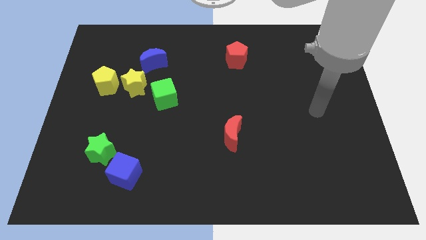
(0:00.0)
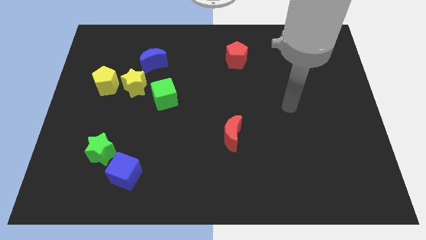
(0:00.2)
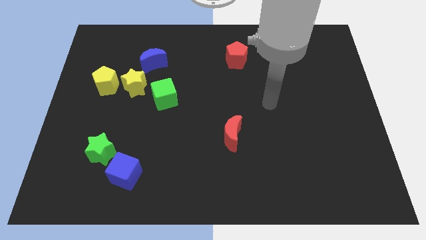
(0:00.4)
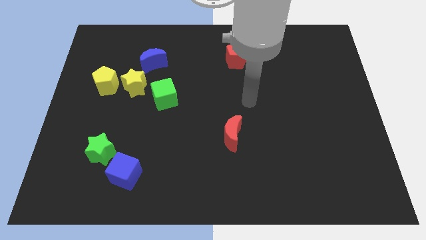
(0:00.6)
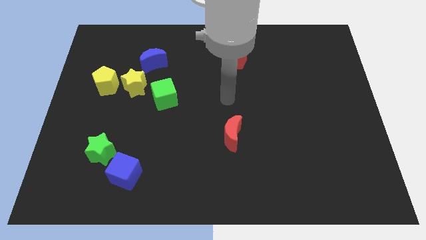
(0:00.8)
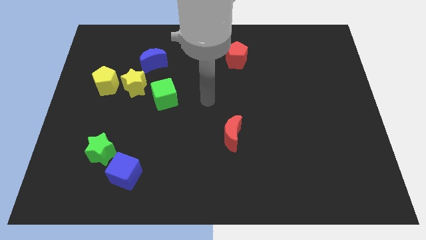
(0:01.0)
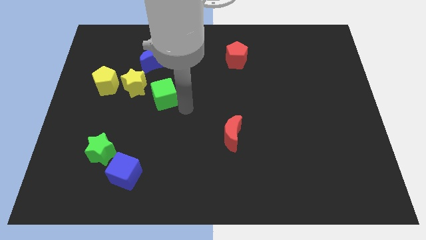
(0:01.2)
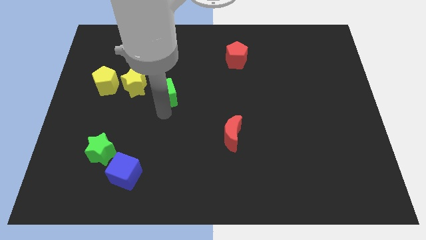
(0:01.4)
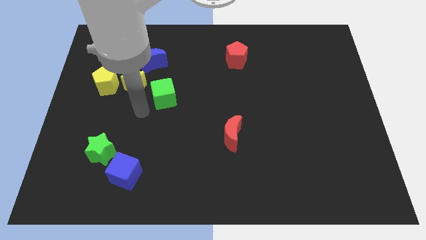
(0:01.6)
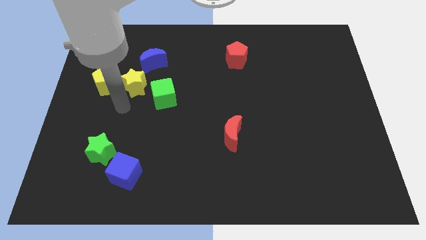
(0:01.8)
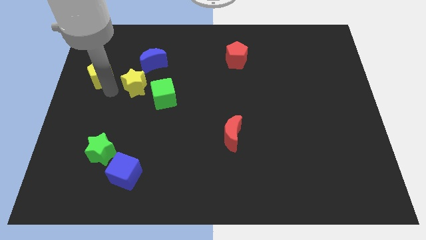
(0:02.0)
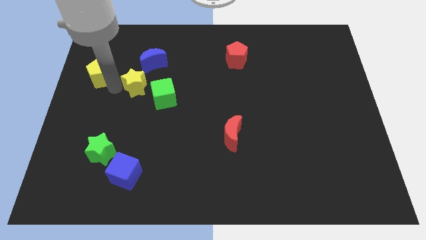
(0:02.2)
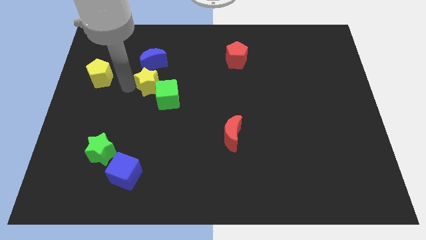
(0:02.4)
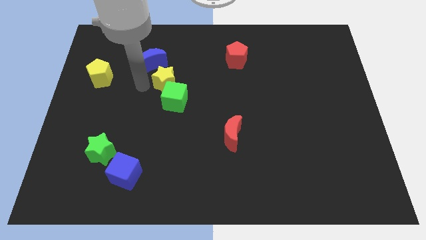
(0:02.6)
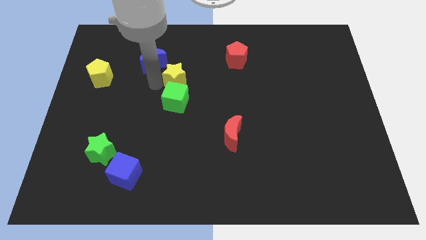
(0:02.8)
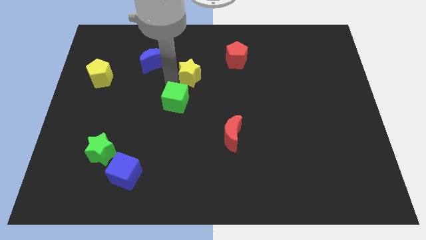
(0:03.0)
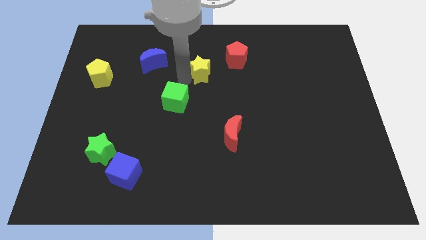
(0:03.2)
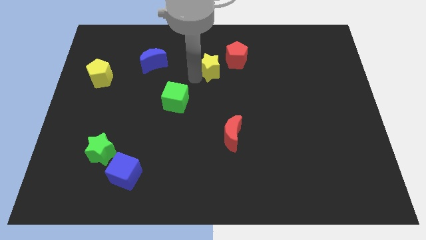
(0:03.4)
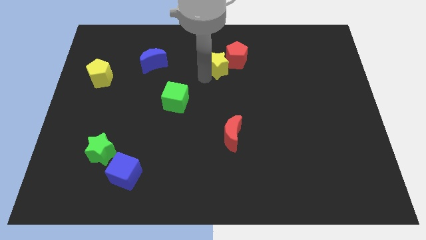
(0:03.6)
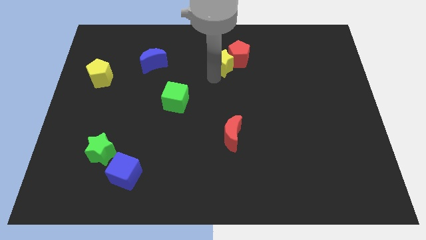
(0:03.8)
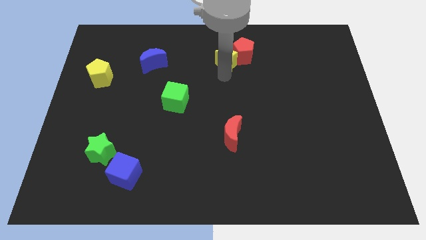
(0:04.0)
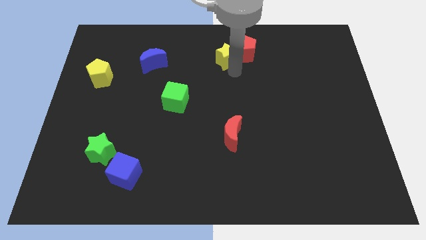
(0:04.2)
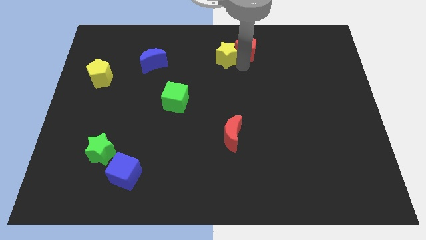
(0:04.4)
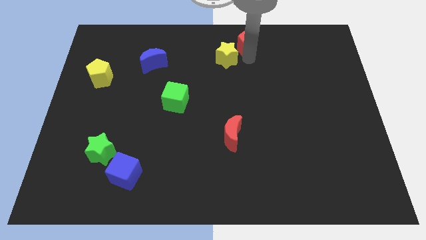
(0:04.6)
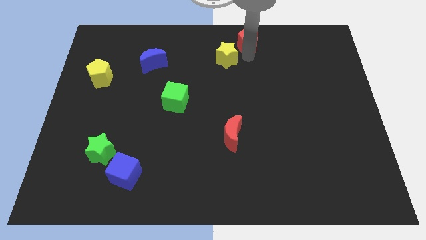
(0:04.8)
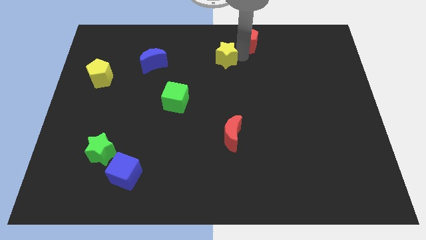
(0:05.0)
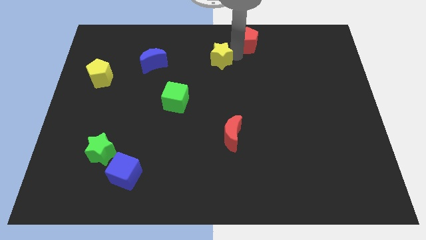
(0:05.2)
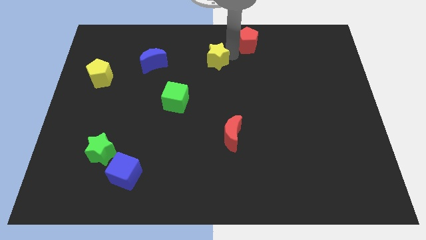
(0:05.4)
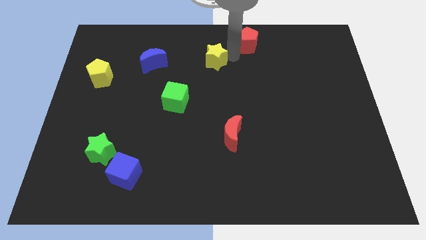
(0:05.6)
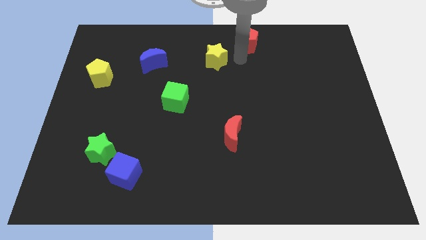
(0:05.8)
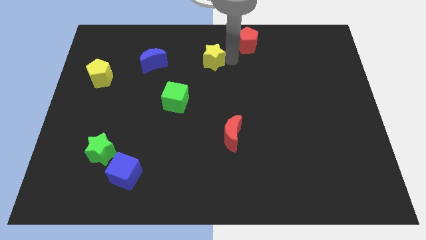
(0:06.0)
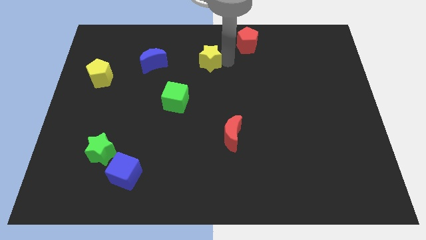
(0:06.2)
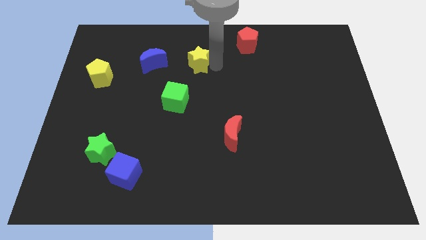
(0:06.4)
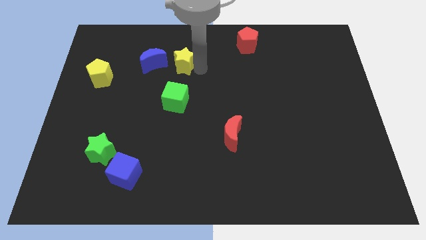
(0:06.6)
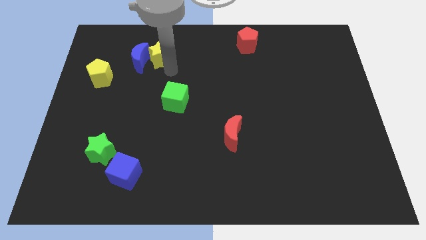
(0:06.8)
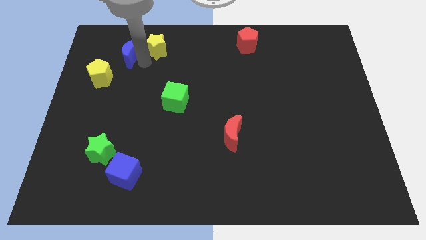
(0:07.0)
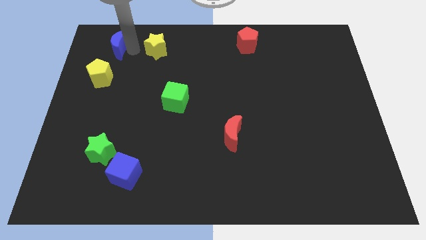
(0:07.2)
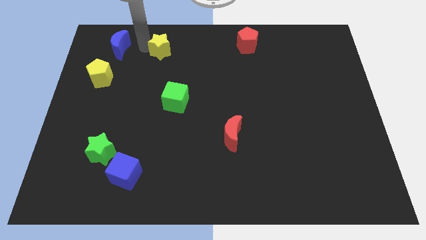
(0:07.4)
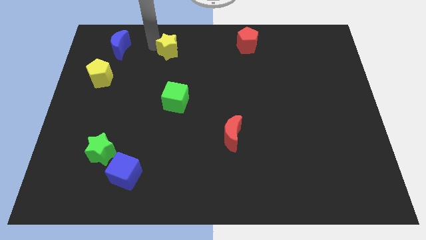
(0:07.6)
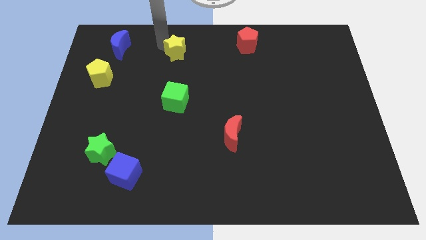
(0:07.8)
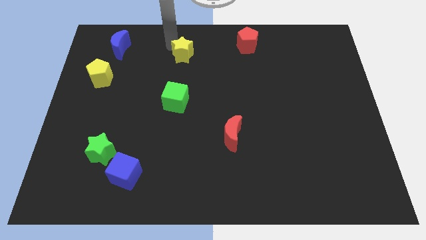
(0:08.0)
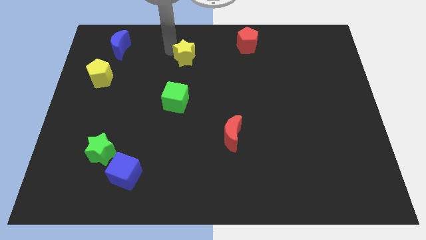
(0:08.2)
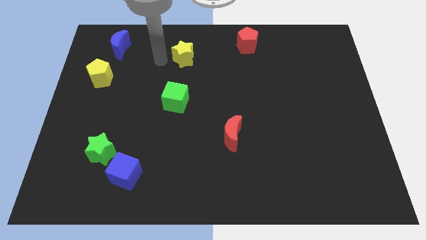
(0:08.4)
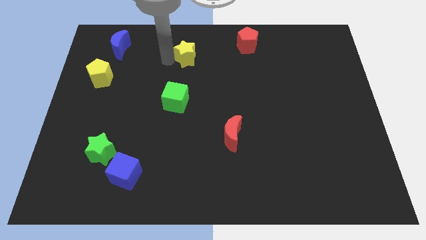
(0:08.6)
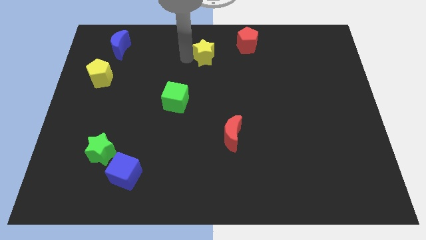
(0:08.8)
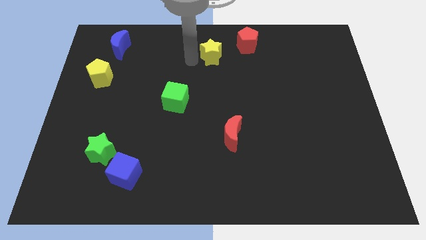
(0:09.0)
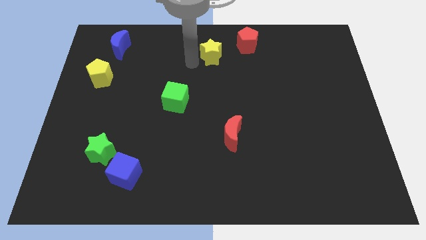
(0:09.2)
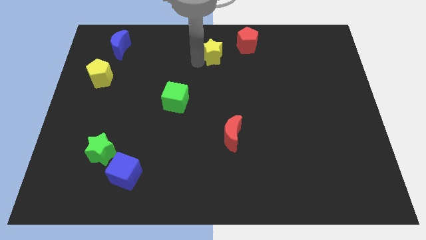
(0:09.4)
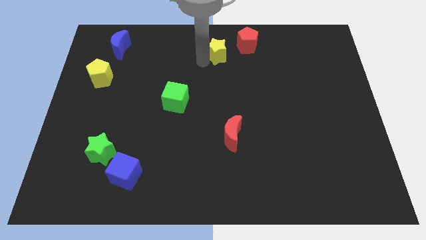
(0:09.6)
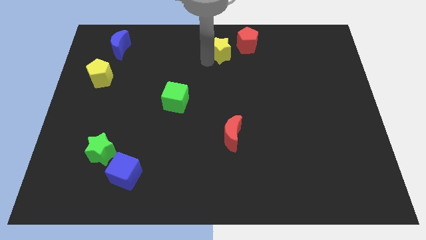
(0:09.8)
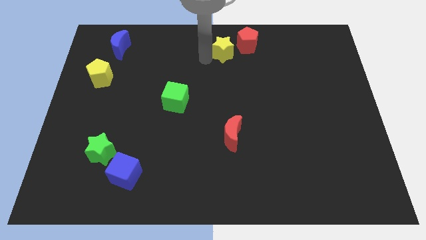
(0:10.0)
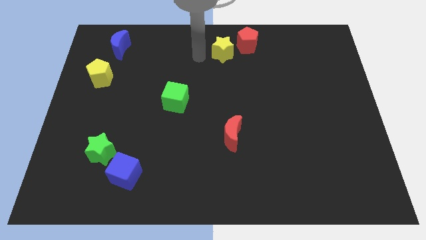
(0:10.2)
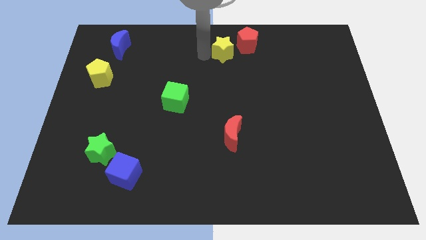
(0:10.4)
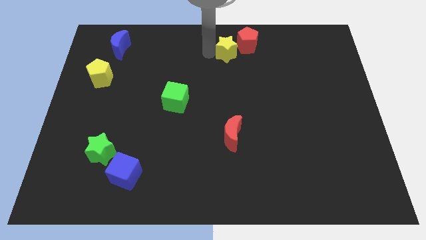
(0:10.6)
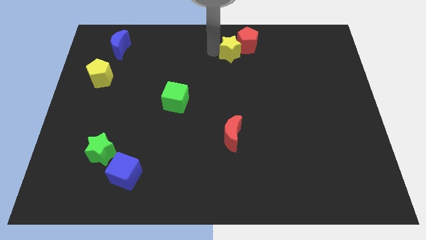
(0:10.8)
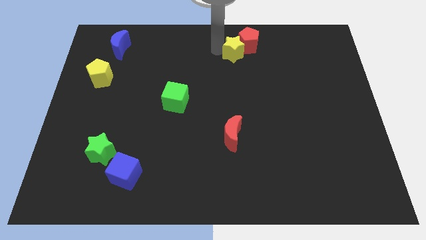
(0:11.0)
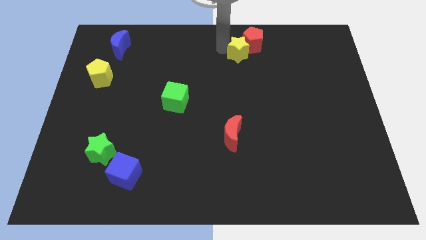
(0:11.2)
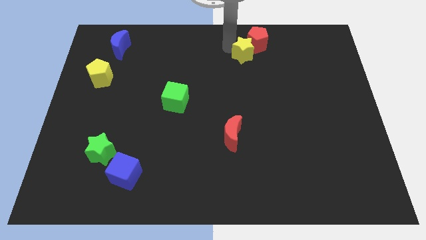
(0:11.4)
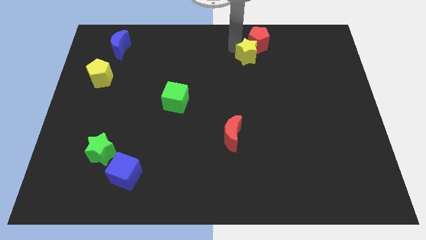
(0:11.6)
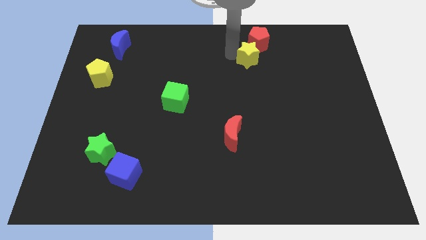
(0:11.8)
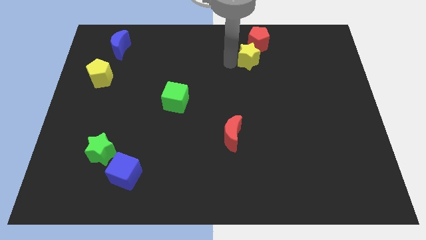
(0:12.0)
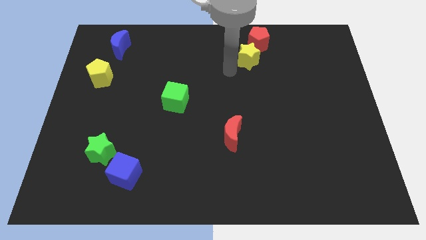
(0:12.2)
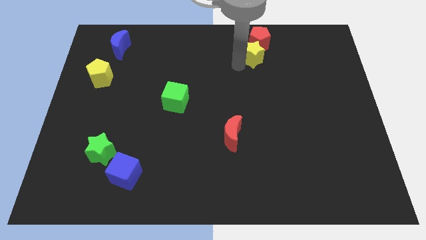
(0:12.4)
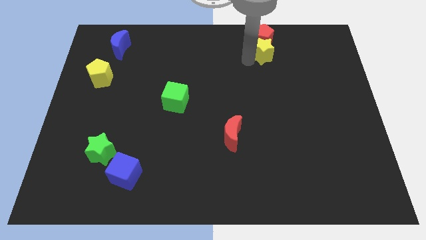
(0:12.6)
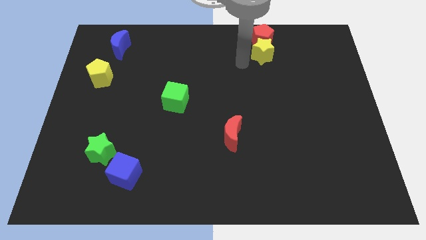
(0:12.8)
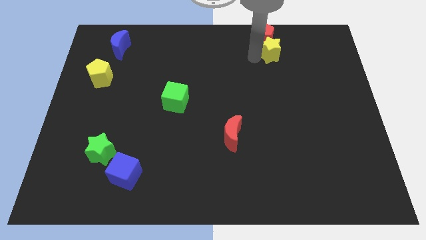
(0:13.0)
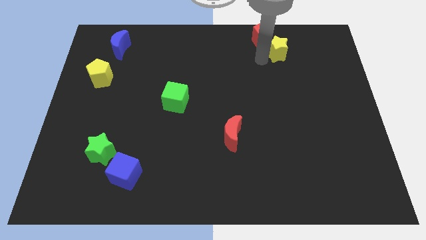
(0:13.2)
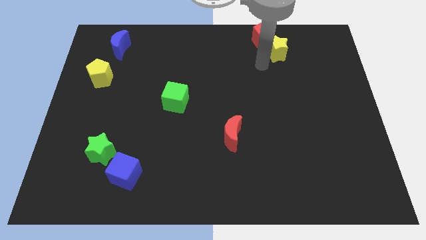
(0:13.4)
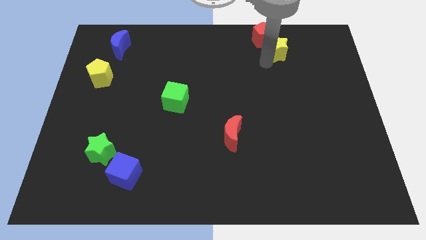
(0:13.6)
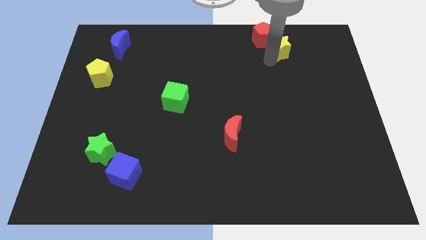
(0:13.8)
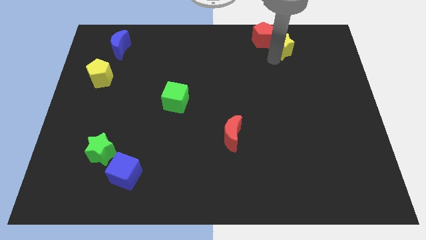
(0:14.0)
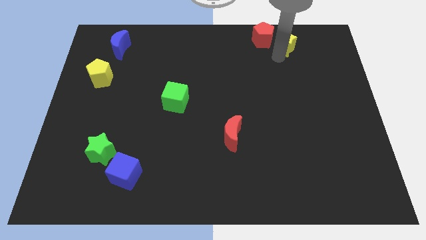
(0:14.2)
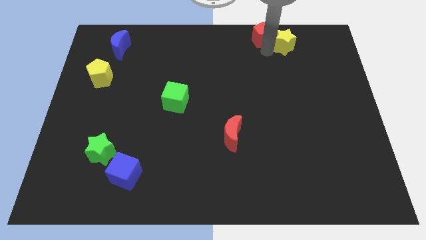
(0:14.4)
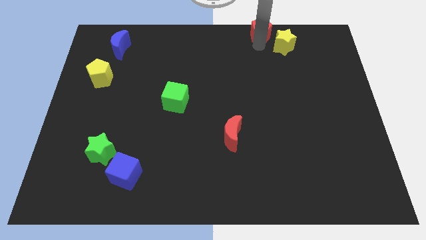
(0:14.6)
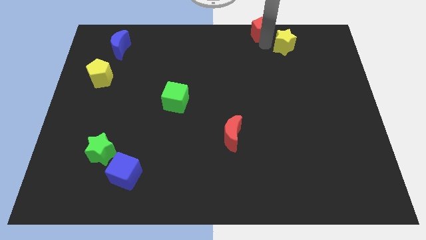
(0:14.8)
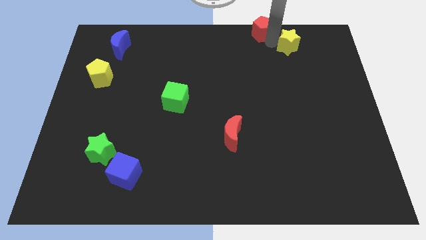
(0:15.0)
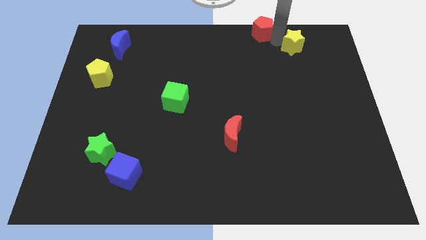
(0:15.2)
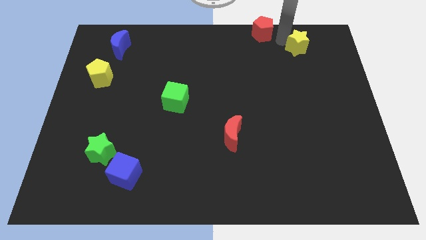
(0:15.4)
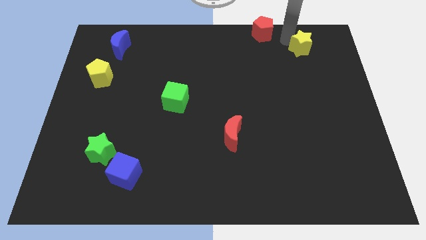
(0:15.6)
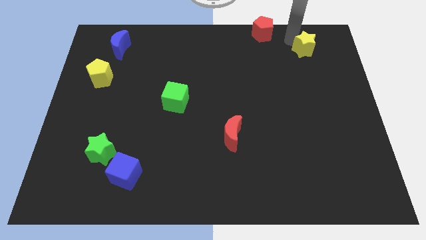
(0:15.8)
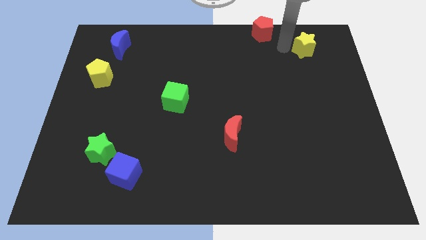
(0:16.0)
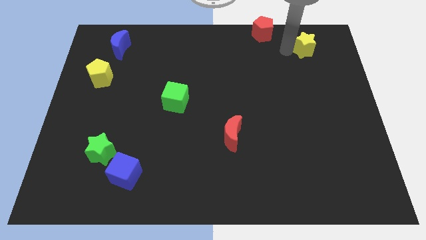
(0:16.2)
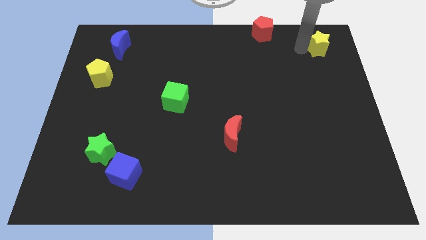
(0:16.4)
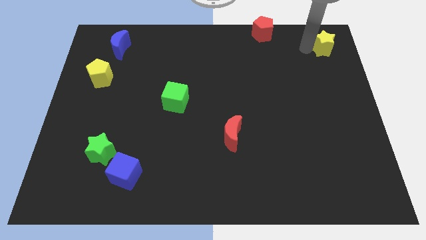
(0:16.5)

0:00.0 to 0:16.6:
put the yellow star to the top right corner
